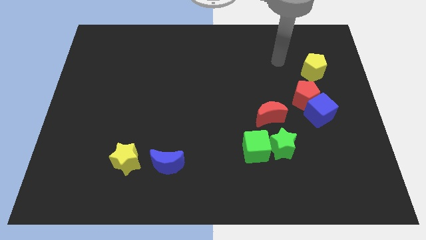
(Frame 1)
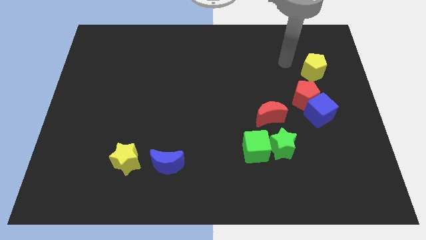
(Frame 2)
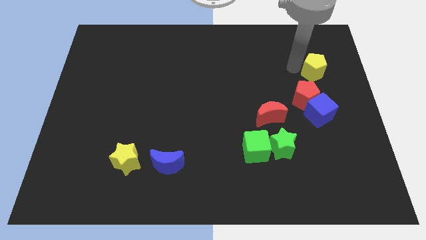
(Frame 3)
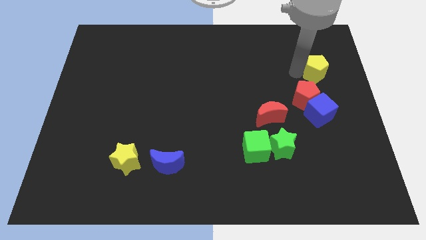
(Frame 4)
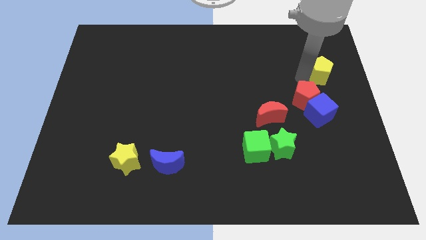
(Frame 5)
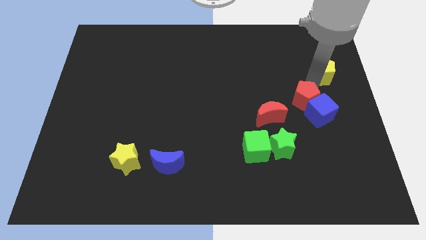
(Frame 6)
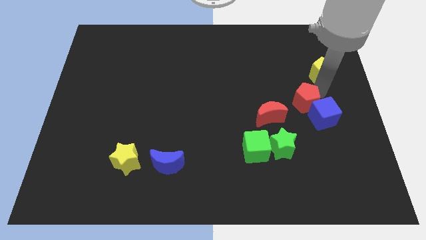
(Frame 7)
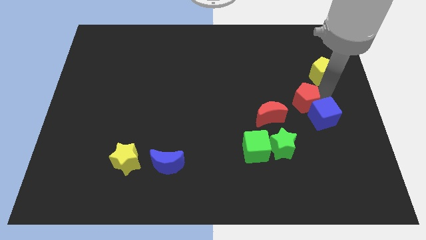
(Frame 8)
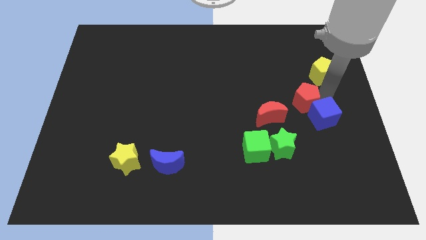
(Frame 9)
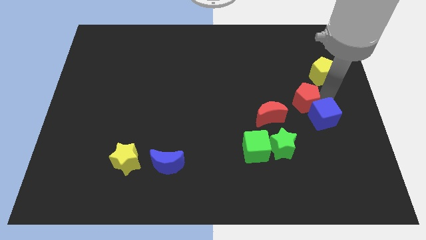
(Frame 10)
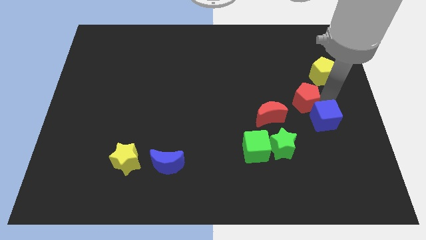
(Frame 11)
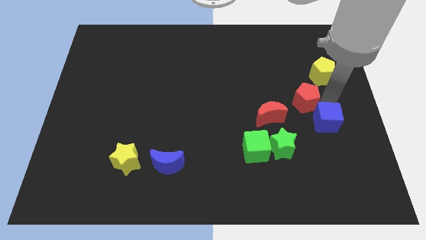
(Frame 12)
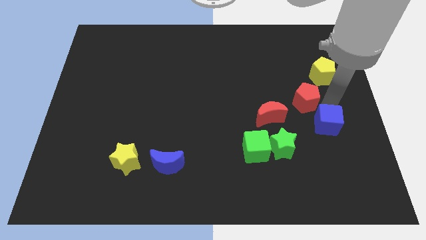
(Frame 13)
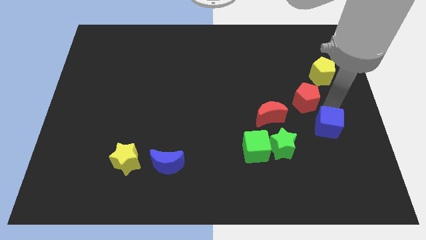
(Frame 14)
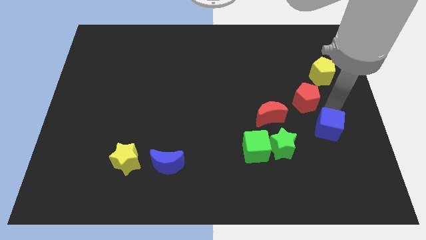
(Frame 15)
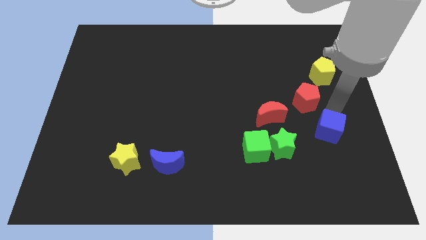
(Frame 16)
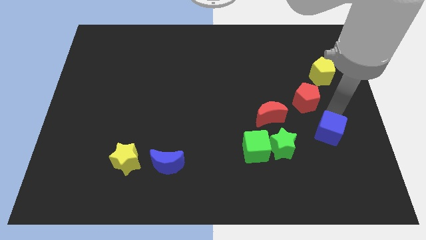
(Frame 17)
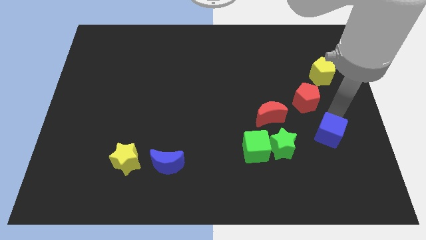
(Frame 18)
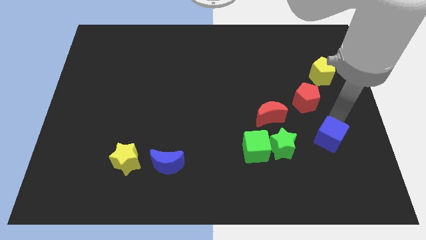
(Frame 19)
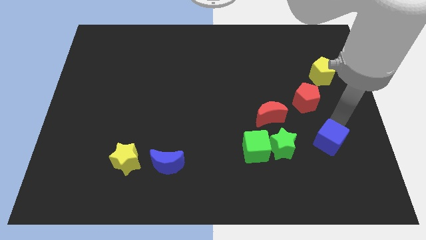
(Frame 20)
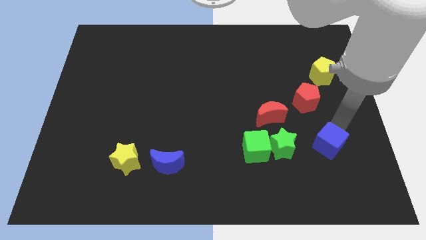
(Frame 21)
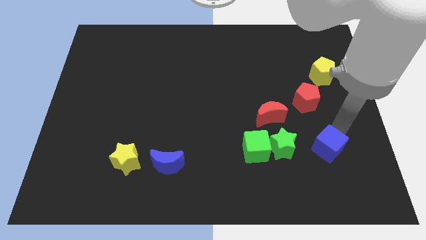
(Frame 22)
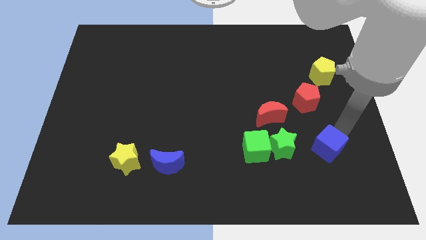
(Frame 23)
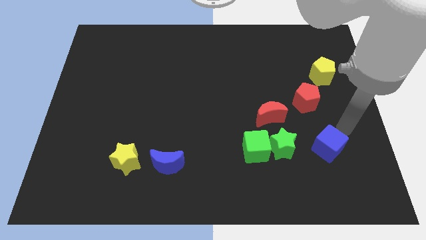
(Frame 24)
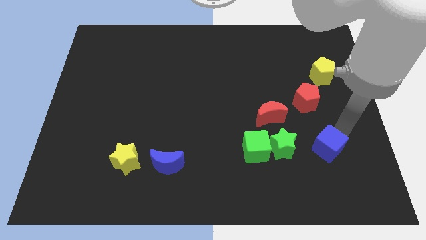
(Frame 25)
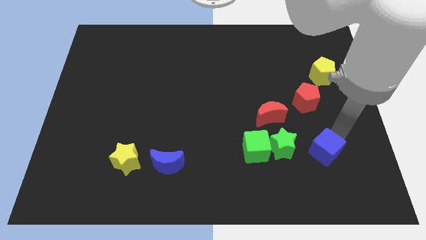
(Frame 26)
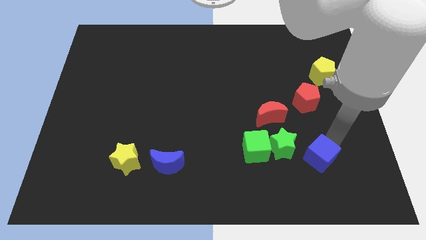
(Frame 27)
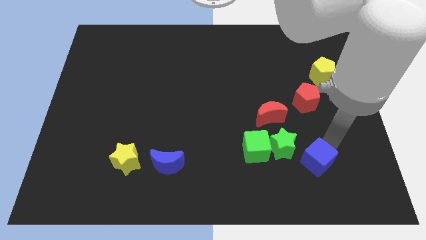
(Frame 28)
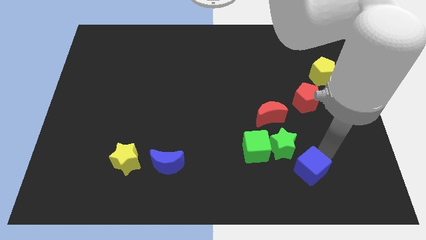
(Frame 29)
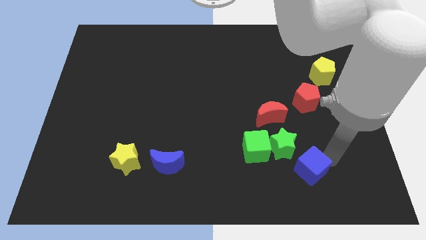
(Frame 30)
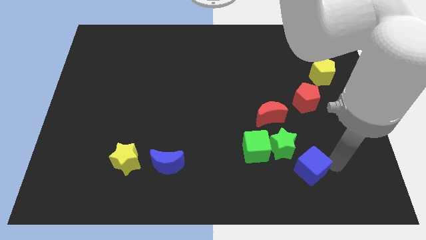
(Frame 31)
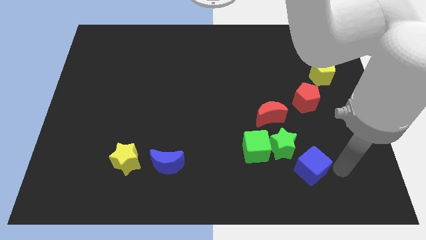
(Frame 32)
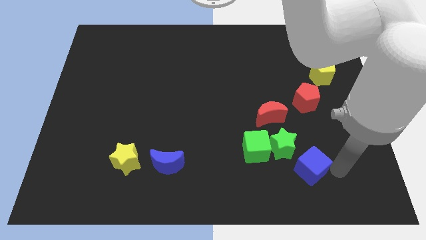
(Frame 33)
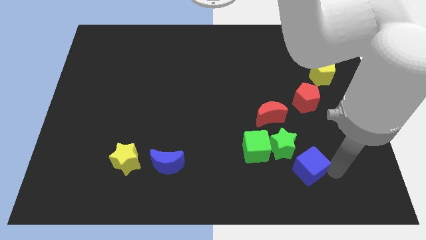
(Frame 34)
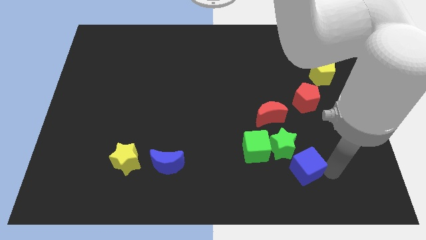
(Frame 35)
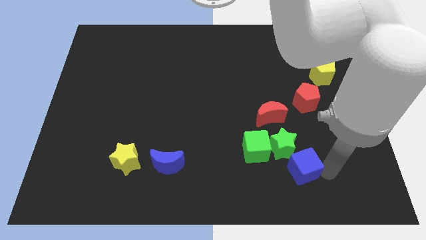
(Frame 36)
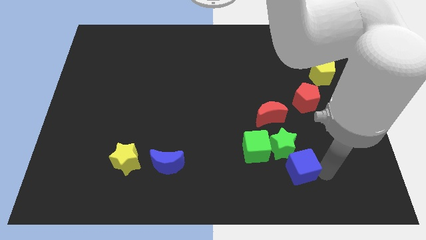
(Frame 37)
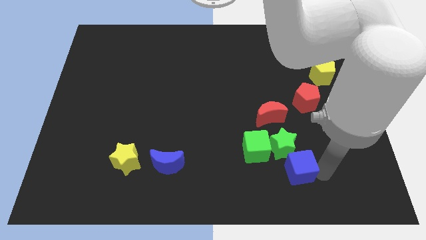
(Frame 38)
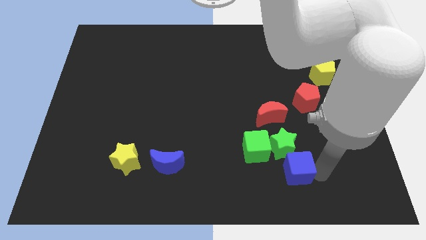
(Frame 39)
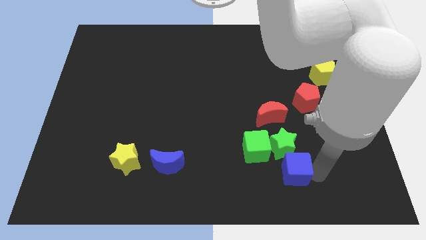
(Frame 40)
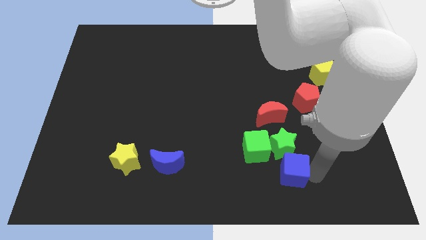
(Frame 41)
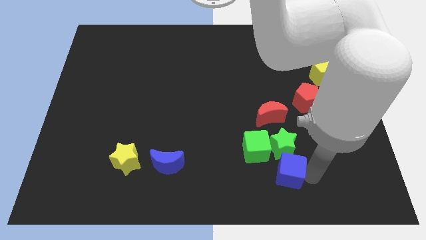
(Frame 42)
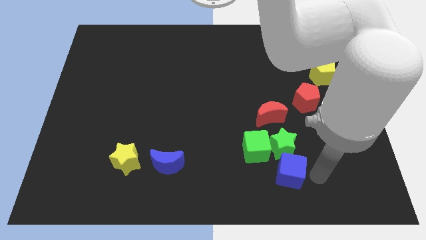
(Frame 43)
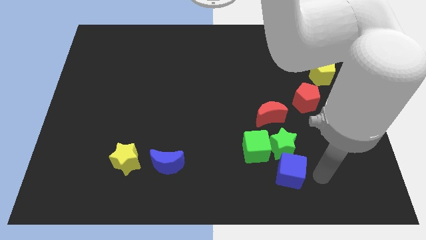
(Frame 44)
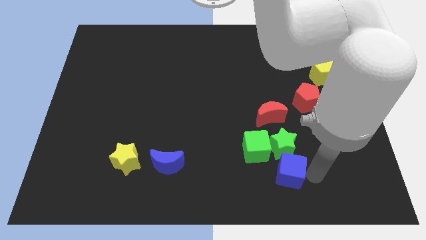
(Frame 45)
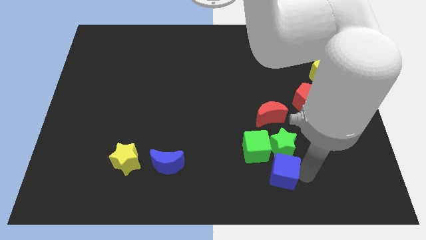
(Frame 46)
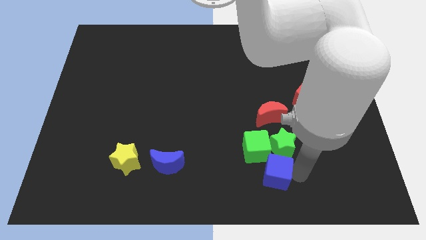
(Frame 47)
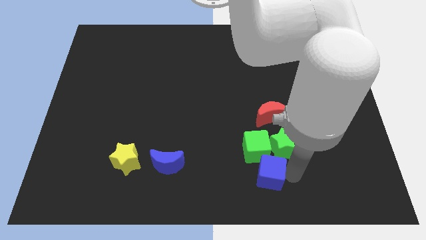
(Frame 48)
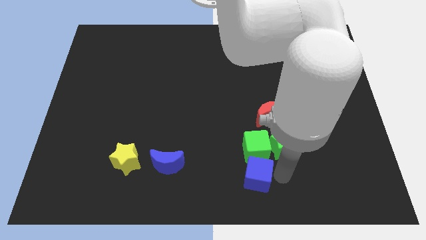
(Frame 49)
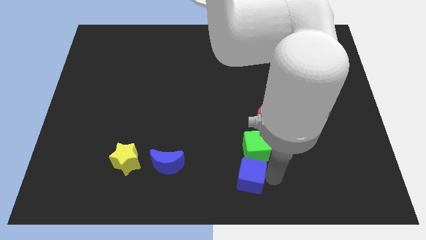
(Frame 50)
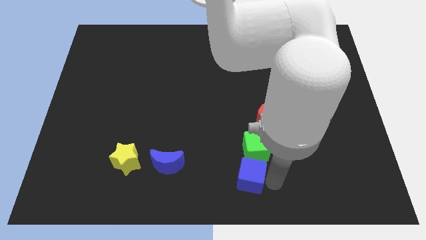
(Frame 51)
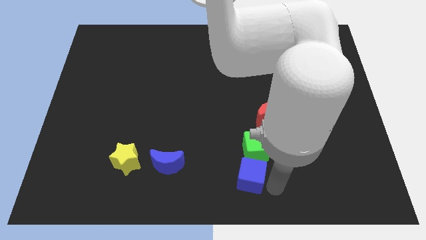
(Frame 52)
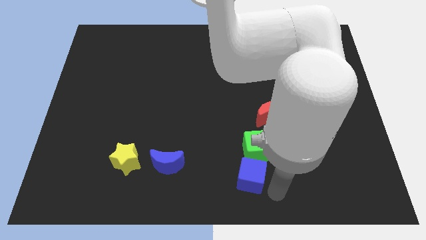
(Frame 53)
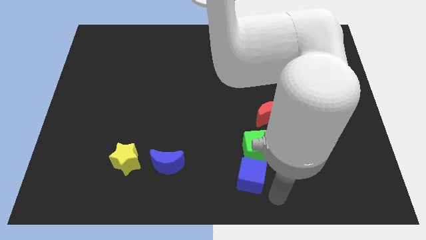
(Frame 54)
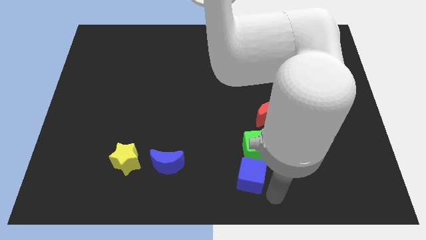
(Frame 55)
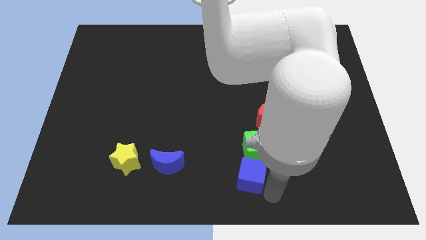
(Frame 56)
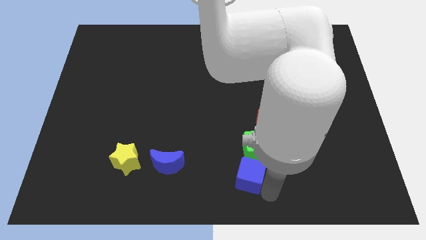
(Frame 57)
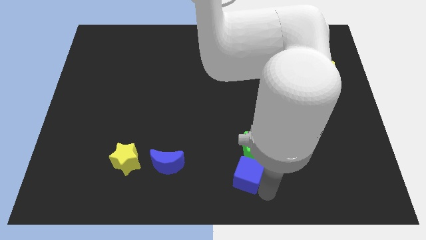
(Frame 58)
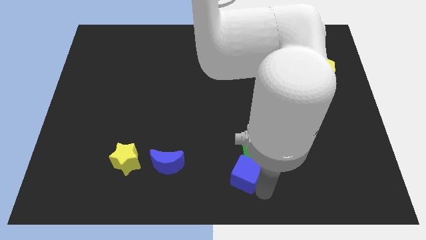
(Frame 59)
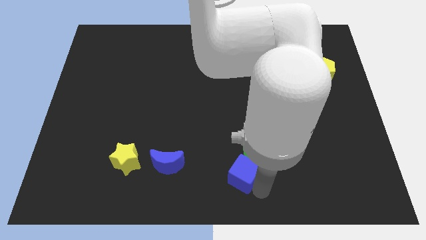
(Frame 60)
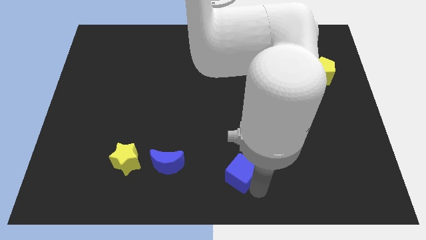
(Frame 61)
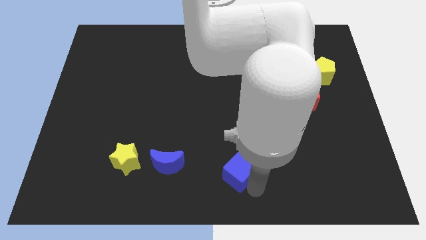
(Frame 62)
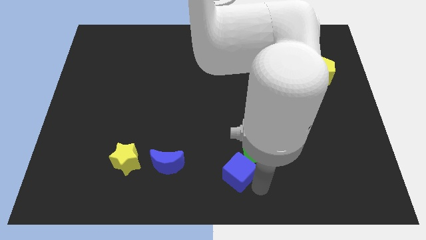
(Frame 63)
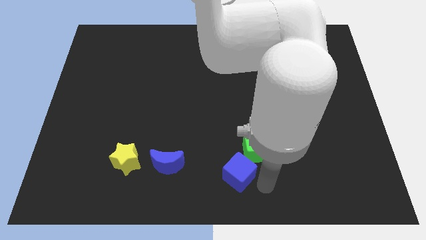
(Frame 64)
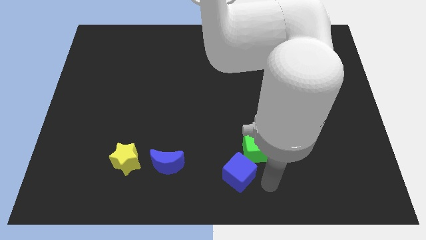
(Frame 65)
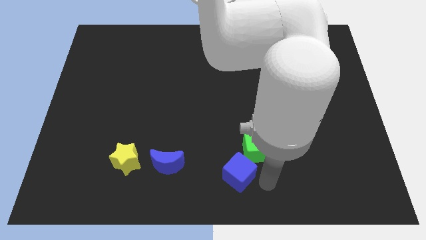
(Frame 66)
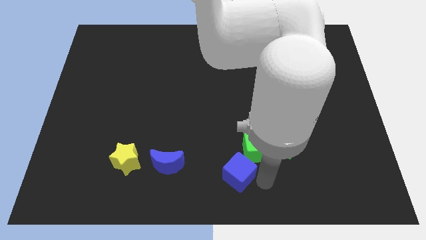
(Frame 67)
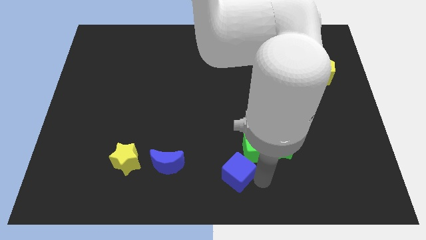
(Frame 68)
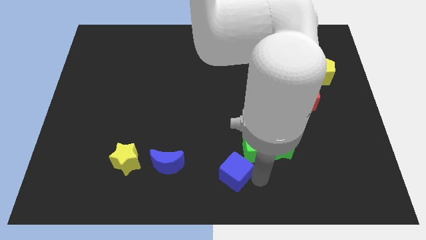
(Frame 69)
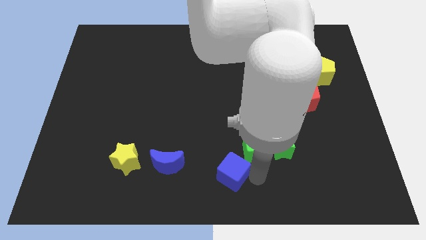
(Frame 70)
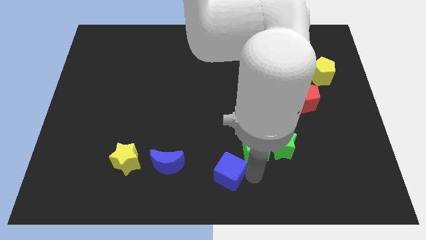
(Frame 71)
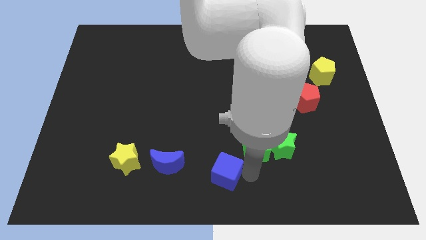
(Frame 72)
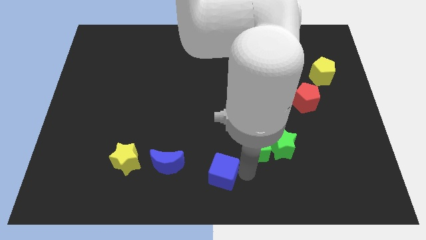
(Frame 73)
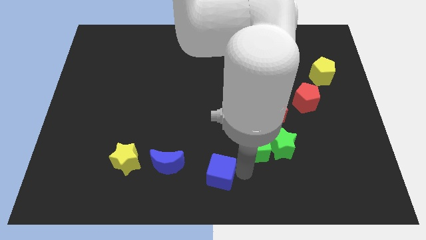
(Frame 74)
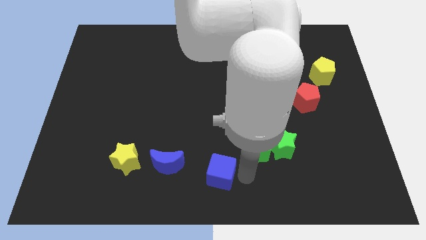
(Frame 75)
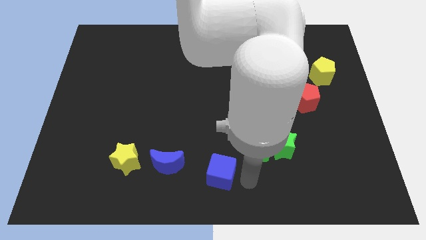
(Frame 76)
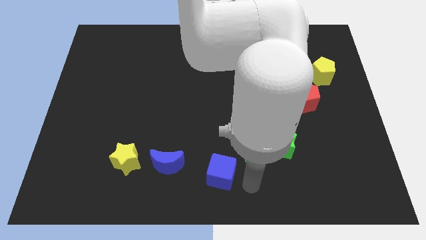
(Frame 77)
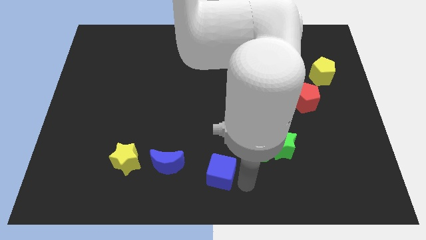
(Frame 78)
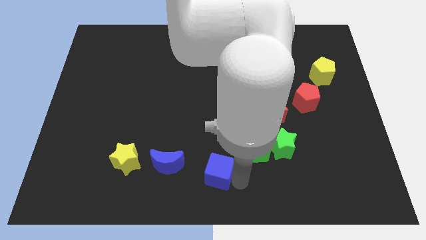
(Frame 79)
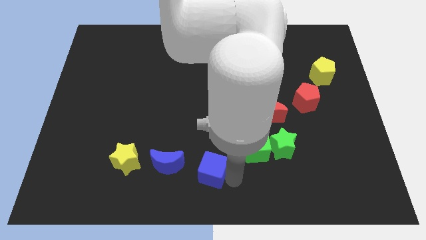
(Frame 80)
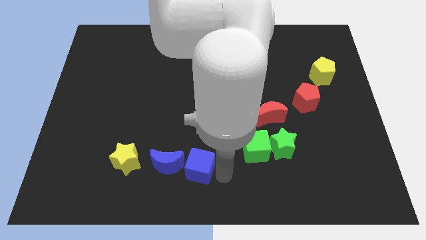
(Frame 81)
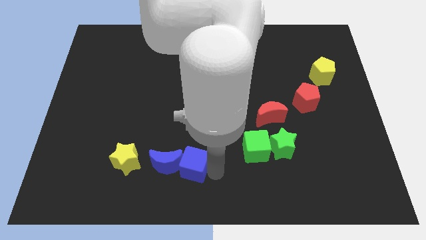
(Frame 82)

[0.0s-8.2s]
put the blue cube towards the blue moon
